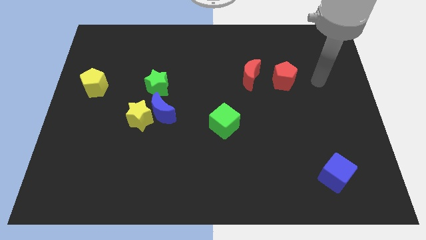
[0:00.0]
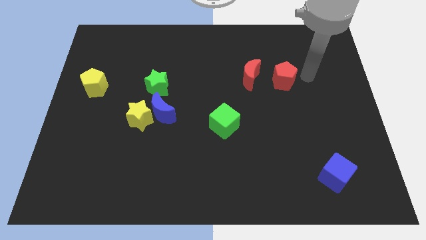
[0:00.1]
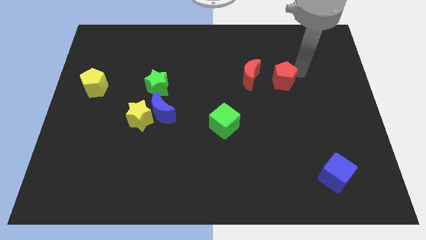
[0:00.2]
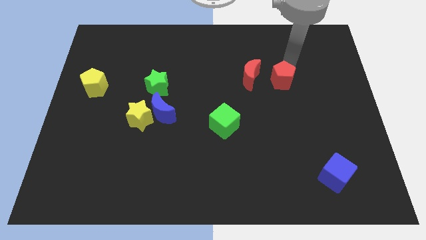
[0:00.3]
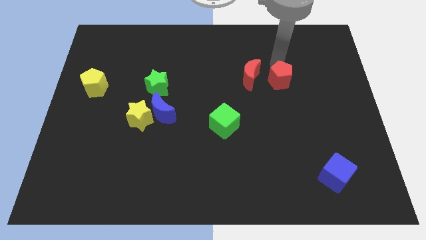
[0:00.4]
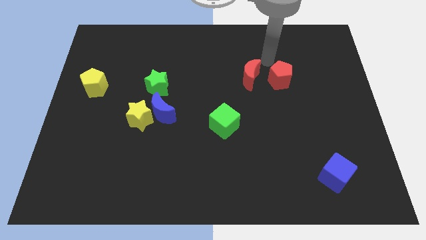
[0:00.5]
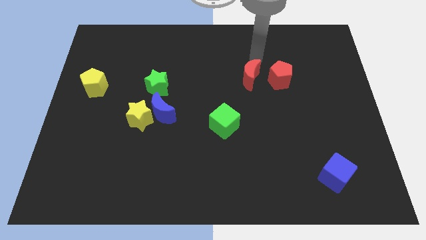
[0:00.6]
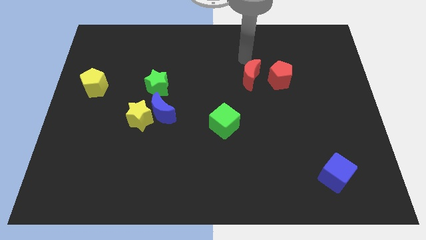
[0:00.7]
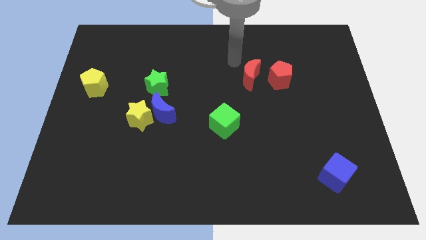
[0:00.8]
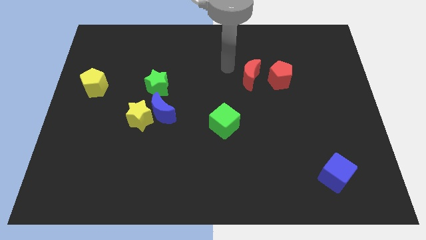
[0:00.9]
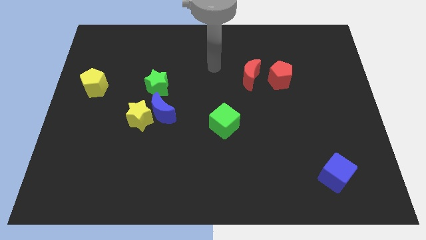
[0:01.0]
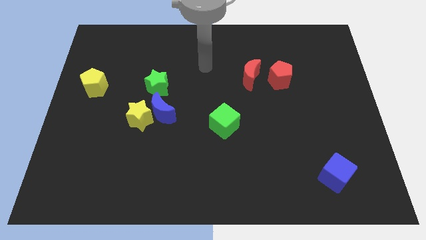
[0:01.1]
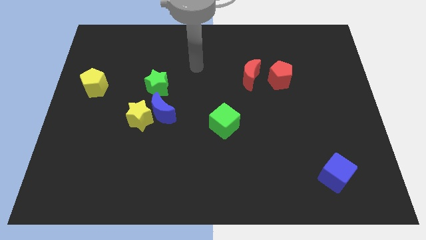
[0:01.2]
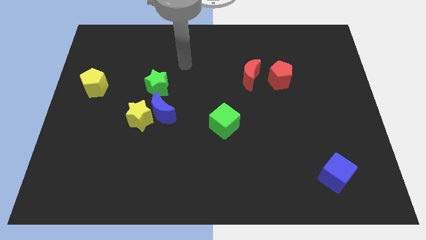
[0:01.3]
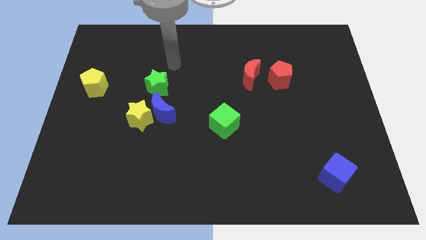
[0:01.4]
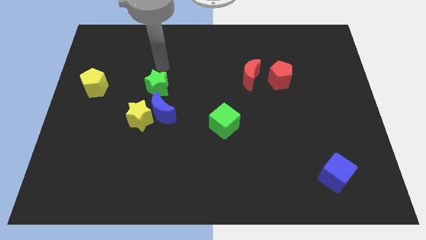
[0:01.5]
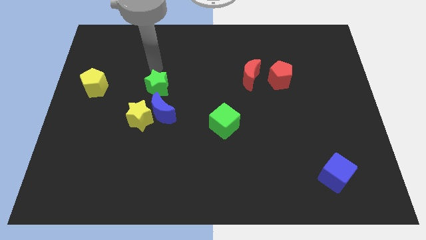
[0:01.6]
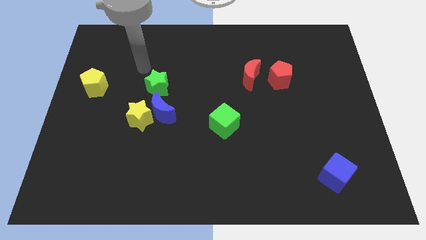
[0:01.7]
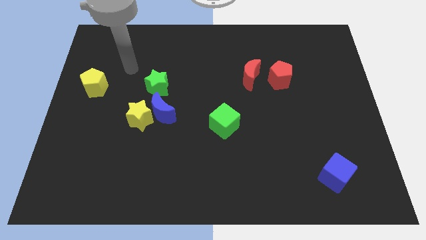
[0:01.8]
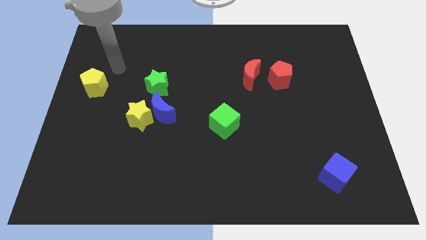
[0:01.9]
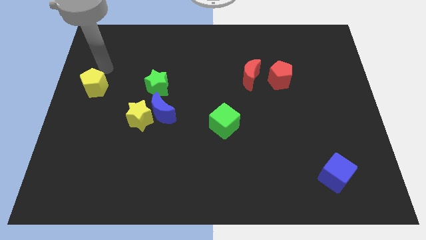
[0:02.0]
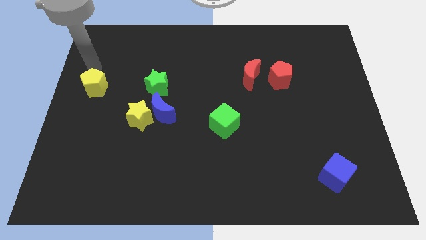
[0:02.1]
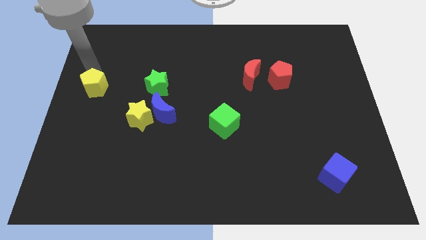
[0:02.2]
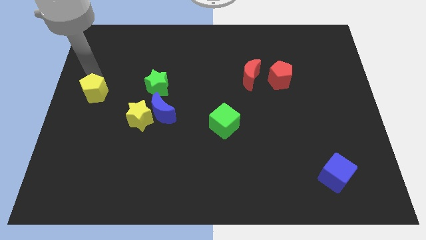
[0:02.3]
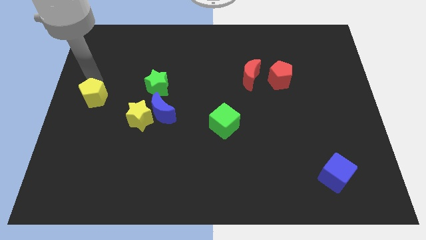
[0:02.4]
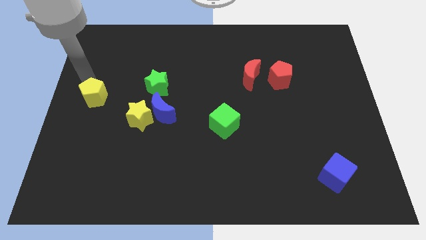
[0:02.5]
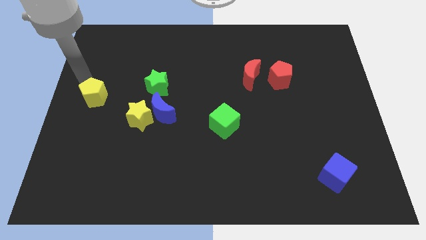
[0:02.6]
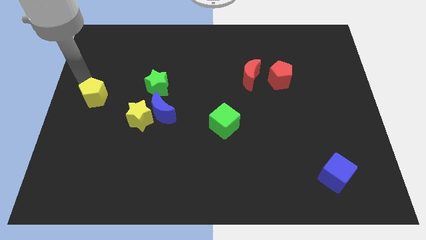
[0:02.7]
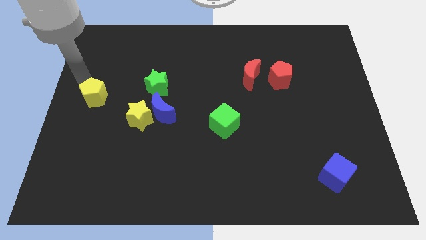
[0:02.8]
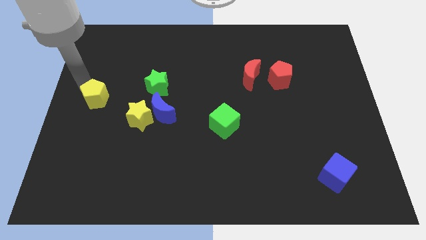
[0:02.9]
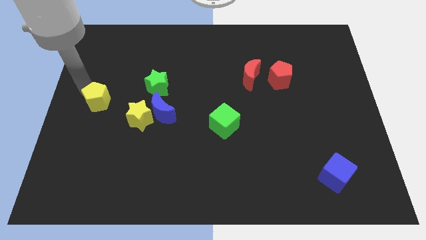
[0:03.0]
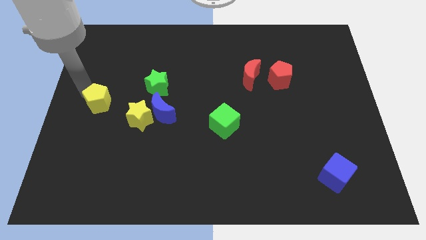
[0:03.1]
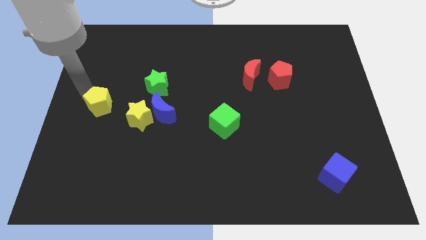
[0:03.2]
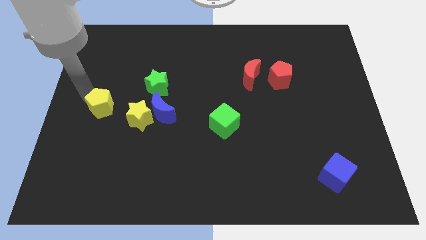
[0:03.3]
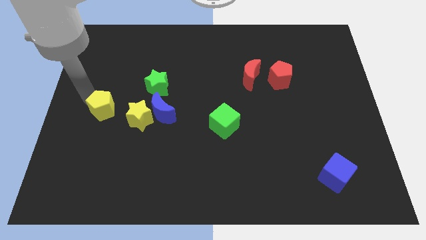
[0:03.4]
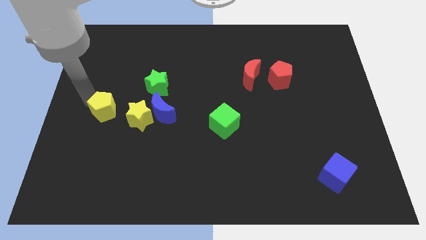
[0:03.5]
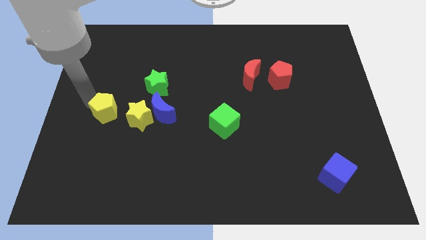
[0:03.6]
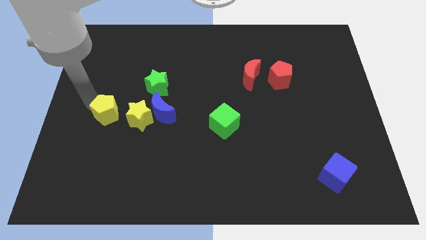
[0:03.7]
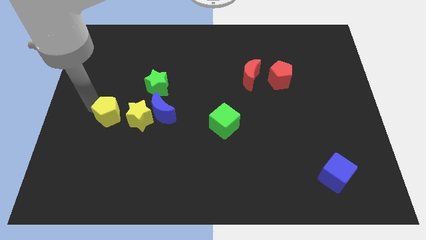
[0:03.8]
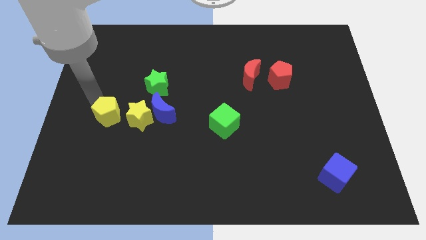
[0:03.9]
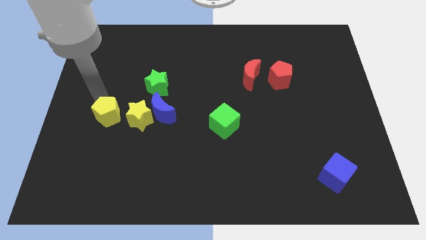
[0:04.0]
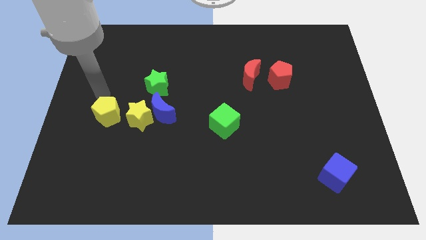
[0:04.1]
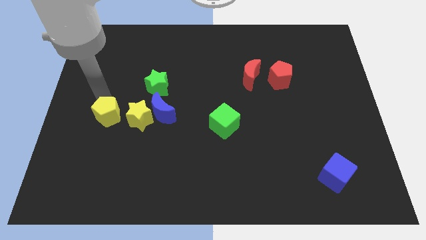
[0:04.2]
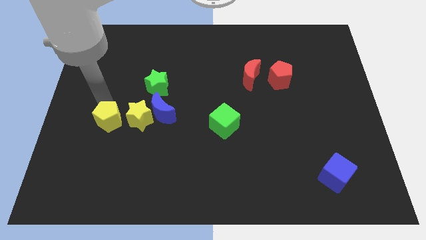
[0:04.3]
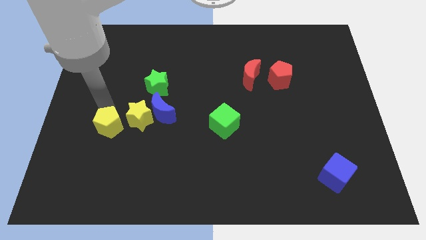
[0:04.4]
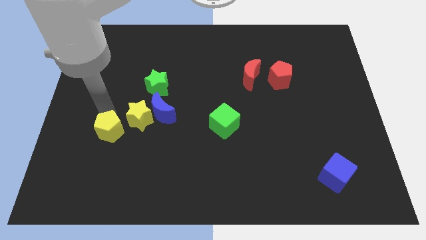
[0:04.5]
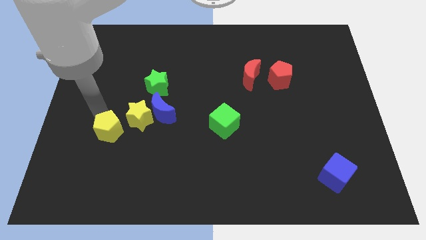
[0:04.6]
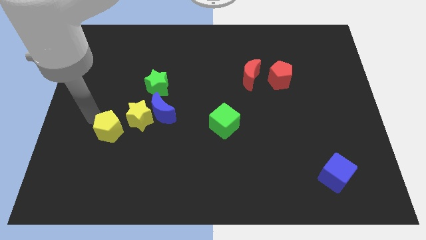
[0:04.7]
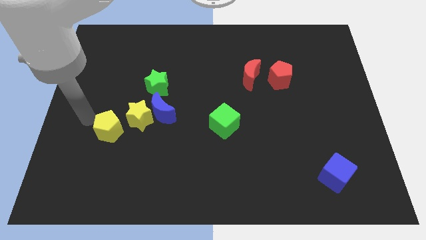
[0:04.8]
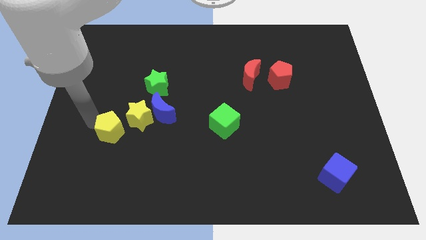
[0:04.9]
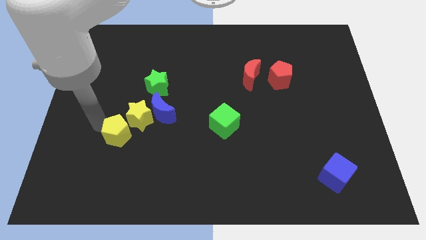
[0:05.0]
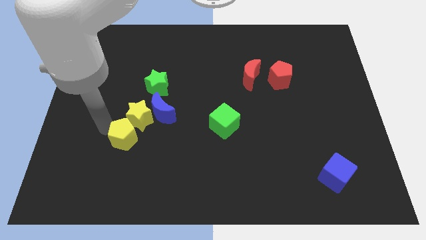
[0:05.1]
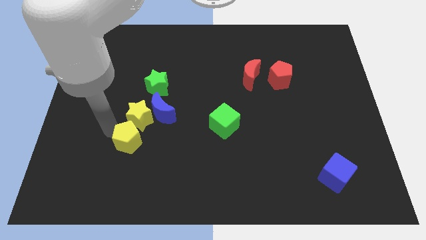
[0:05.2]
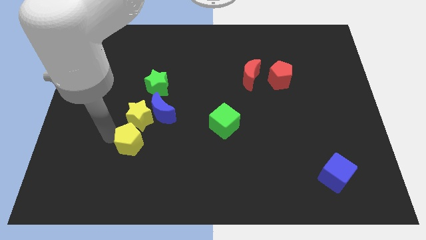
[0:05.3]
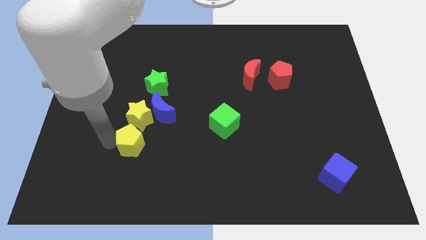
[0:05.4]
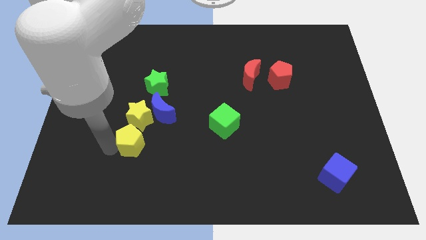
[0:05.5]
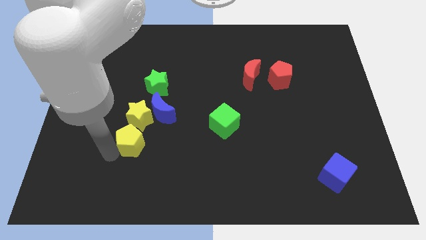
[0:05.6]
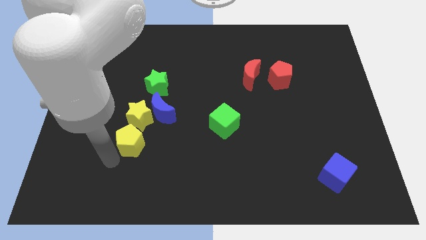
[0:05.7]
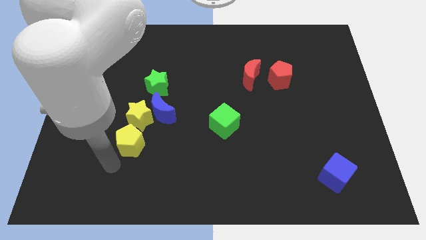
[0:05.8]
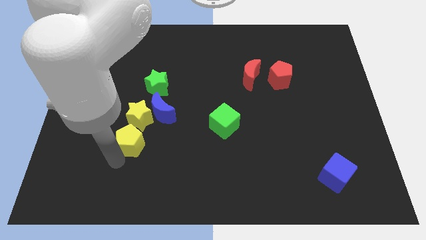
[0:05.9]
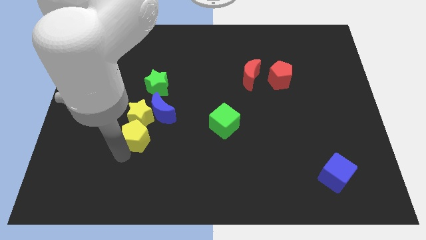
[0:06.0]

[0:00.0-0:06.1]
slide the yellow pentagon to the bottom of the green star

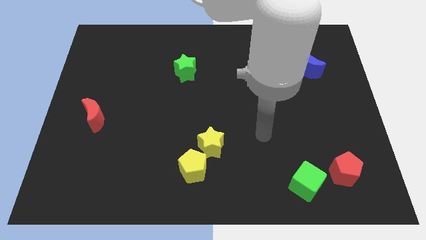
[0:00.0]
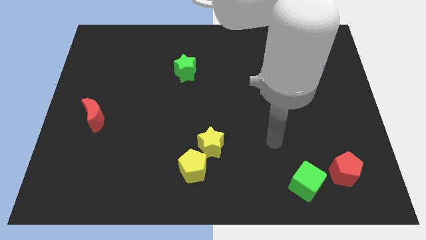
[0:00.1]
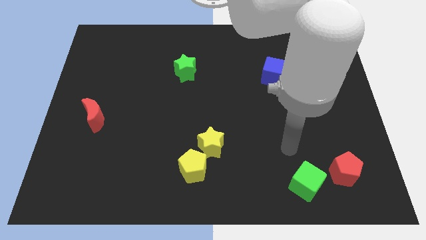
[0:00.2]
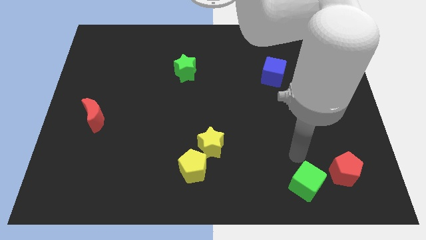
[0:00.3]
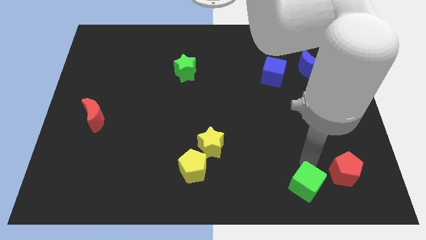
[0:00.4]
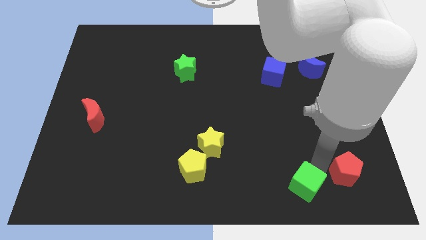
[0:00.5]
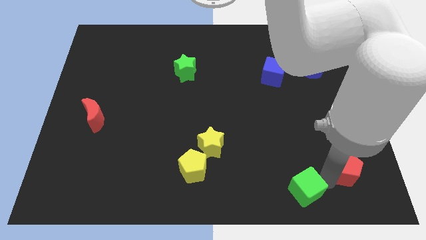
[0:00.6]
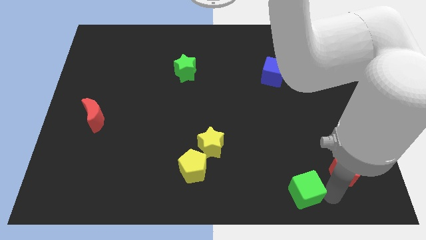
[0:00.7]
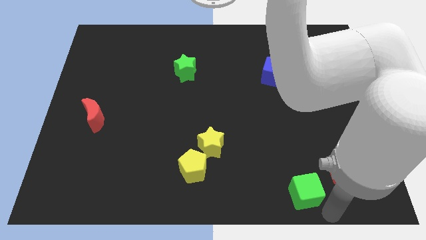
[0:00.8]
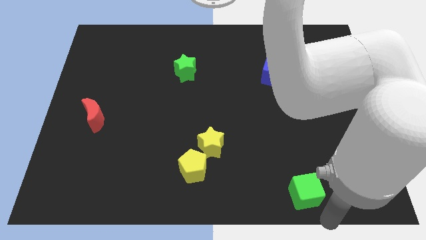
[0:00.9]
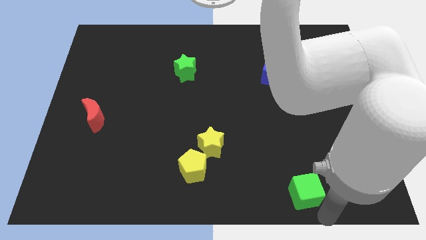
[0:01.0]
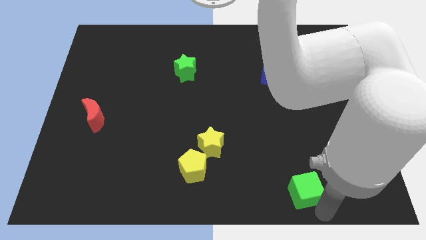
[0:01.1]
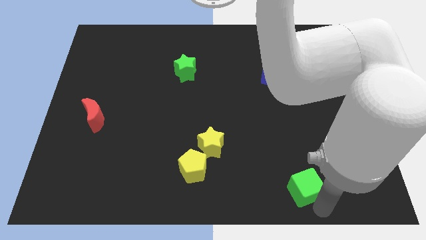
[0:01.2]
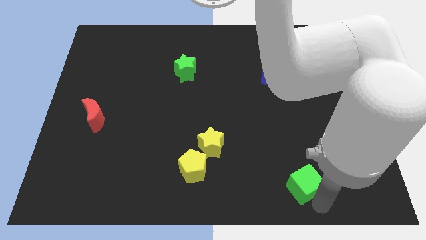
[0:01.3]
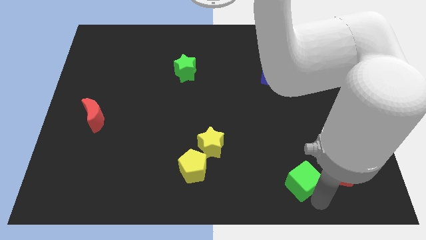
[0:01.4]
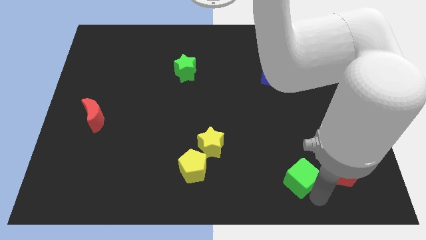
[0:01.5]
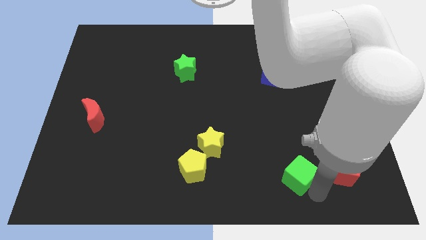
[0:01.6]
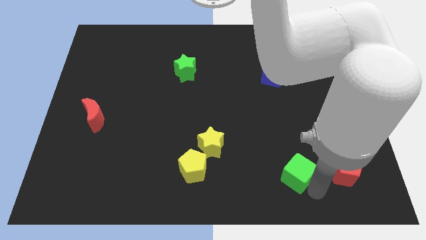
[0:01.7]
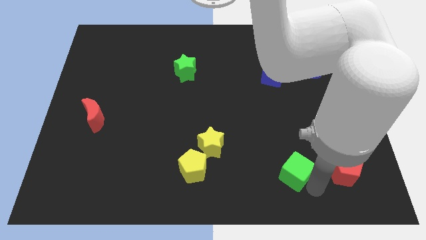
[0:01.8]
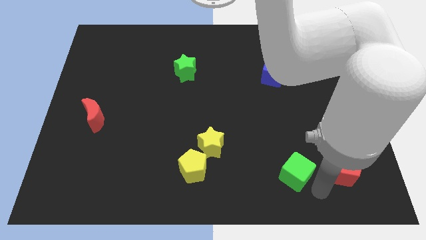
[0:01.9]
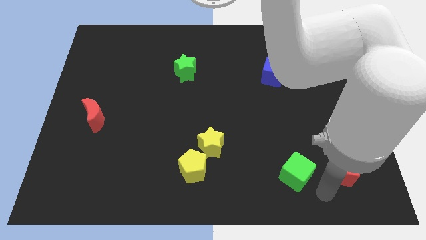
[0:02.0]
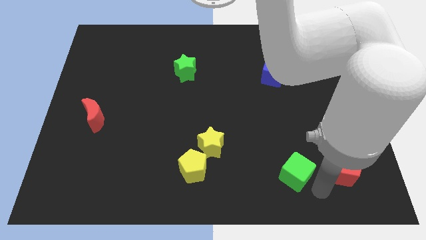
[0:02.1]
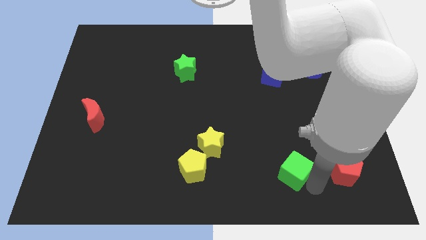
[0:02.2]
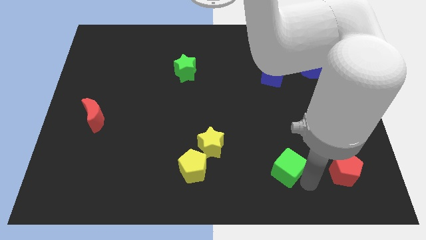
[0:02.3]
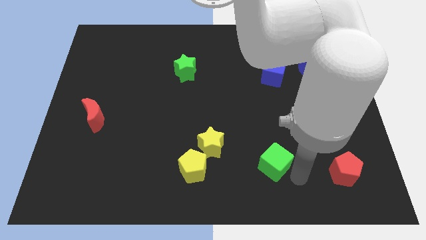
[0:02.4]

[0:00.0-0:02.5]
slide the green cube to the right of the yellow star
